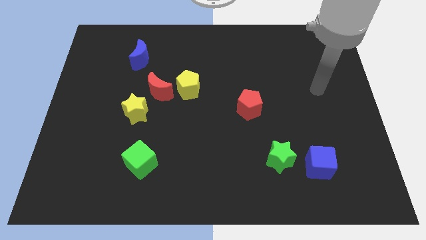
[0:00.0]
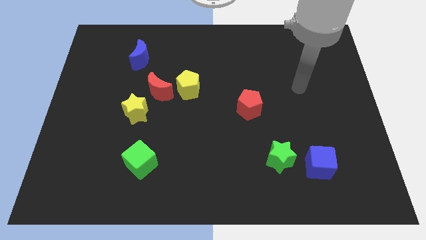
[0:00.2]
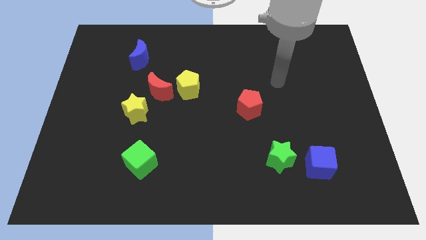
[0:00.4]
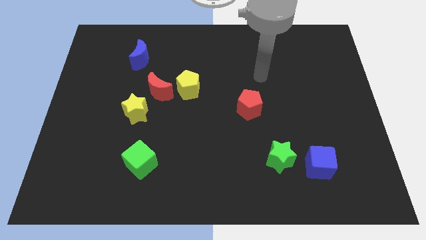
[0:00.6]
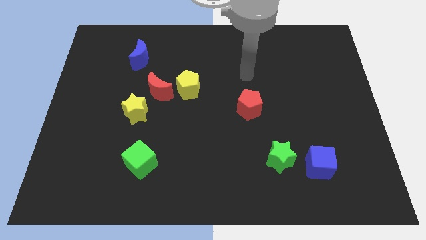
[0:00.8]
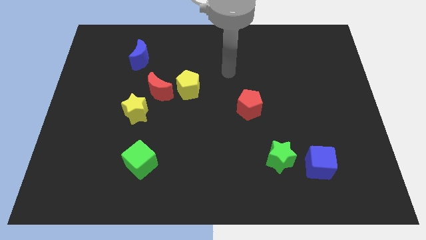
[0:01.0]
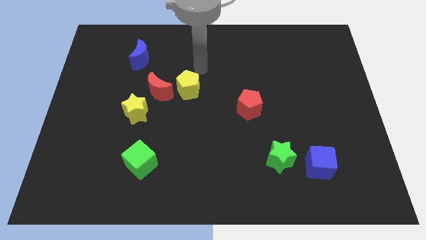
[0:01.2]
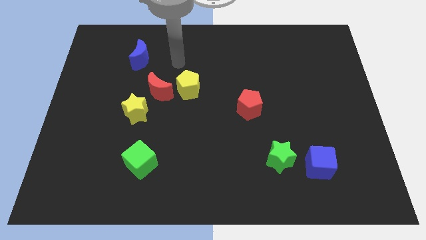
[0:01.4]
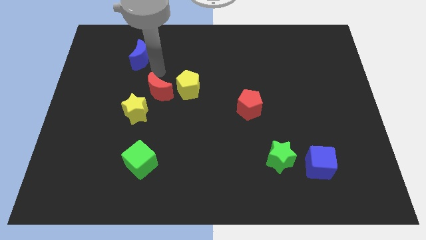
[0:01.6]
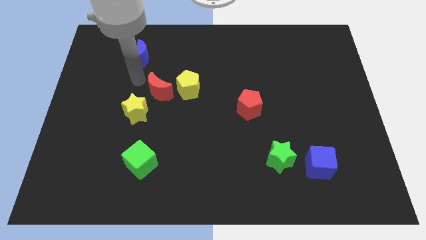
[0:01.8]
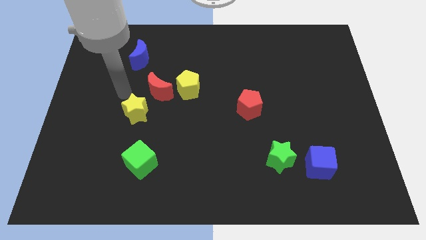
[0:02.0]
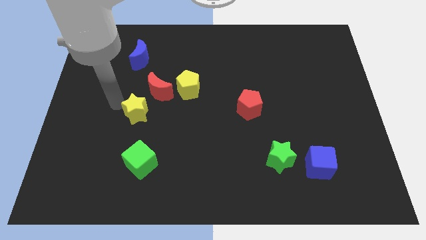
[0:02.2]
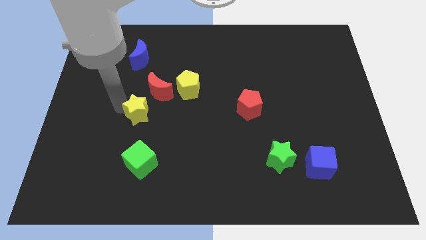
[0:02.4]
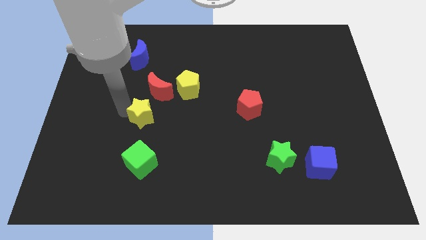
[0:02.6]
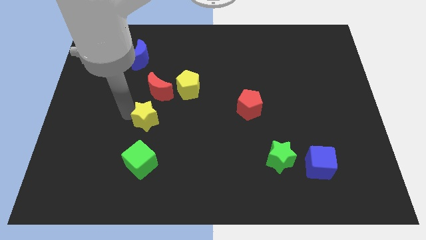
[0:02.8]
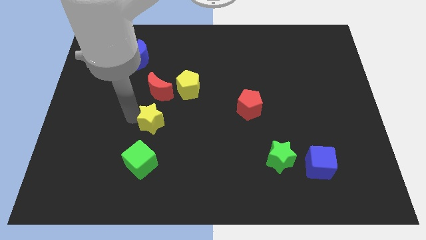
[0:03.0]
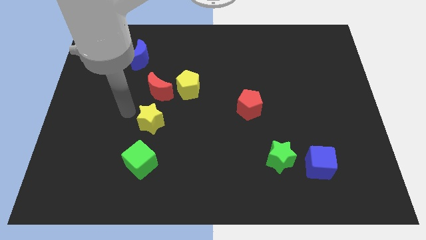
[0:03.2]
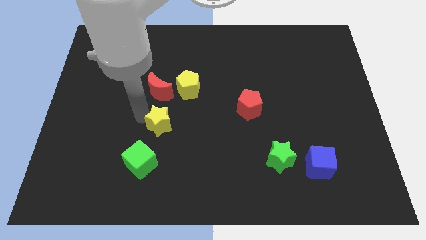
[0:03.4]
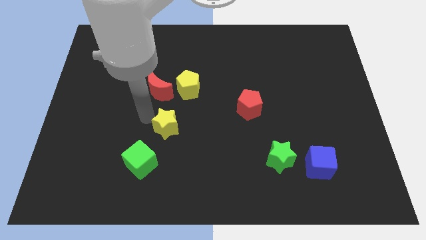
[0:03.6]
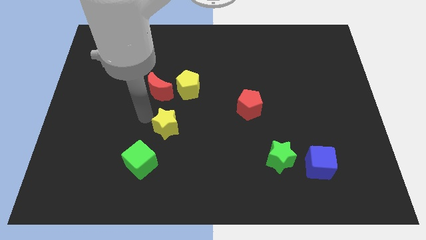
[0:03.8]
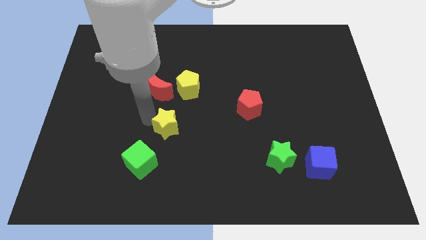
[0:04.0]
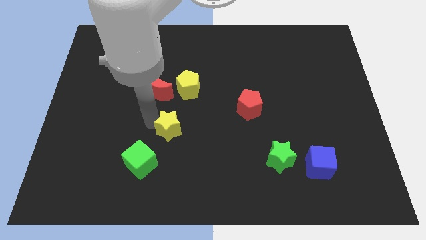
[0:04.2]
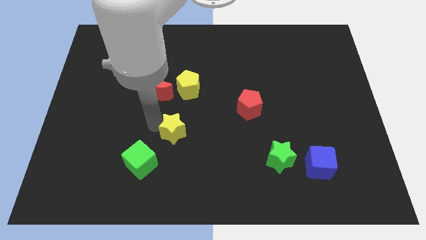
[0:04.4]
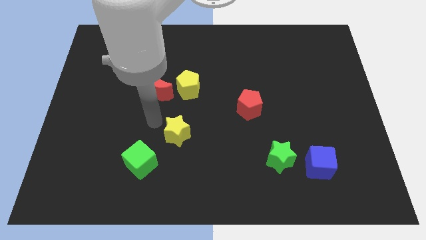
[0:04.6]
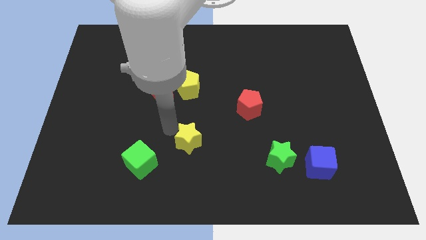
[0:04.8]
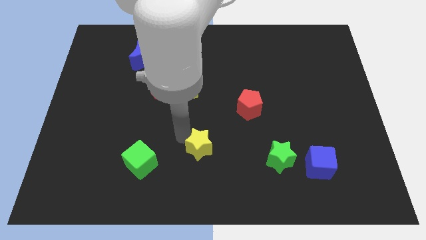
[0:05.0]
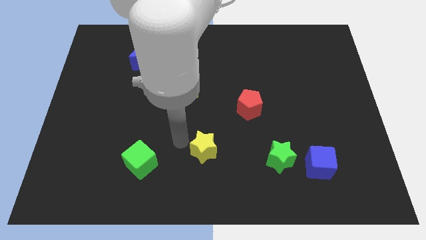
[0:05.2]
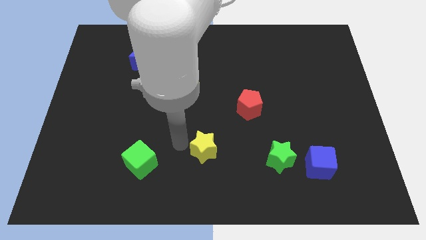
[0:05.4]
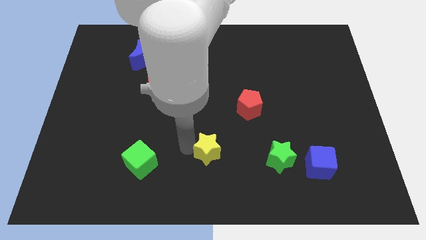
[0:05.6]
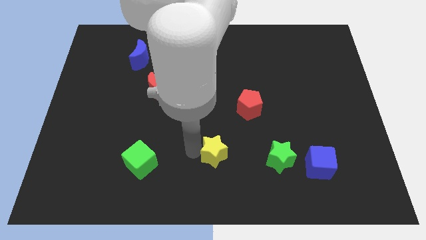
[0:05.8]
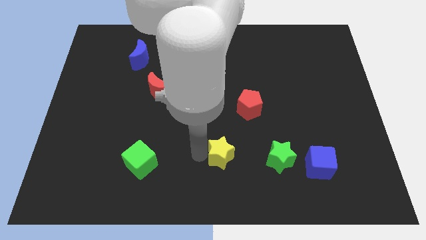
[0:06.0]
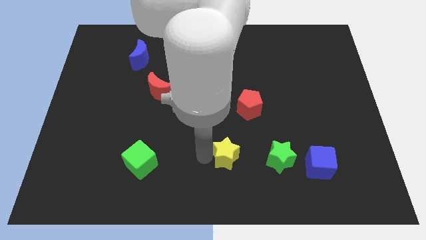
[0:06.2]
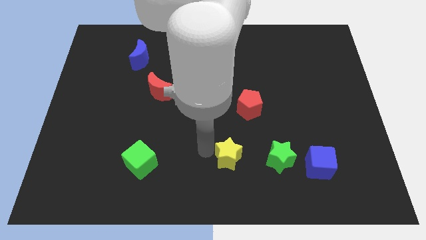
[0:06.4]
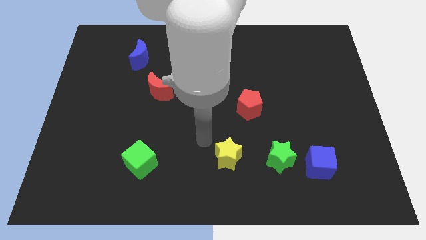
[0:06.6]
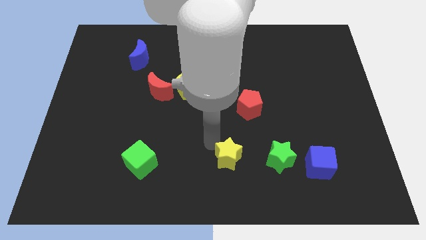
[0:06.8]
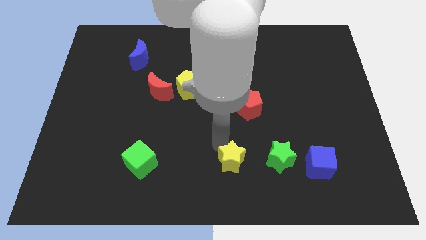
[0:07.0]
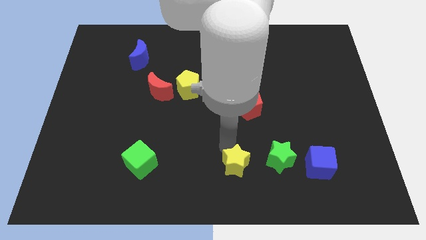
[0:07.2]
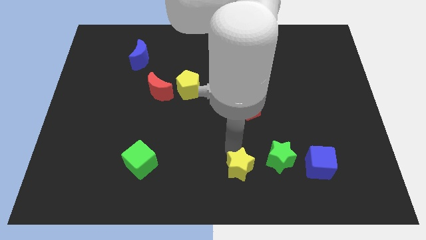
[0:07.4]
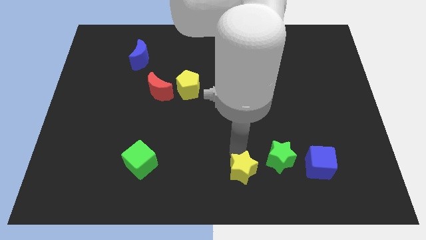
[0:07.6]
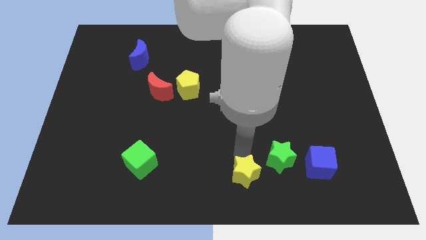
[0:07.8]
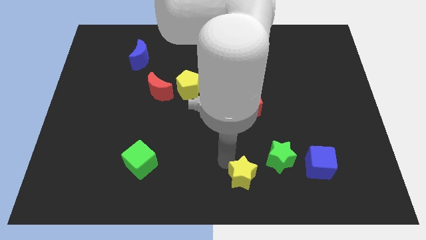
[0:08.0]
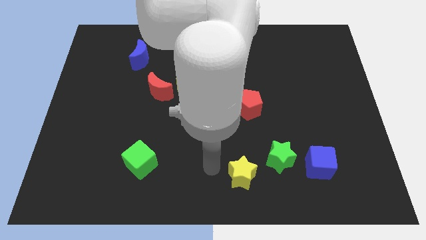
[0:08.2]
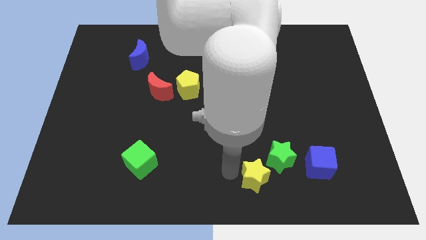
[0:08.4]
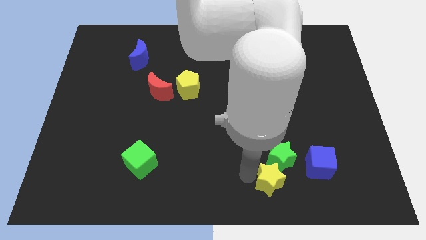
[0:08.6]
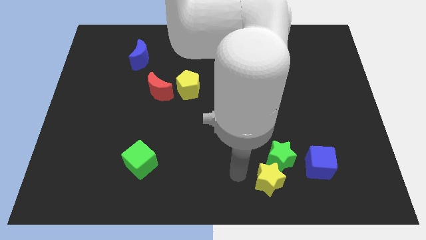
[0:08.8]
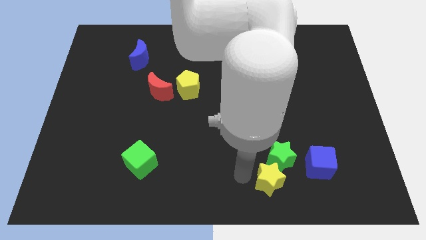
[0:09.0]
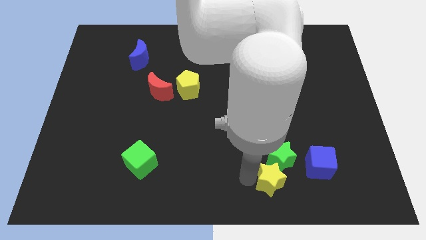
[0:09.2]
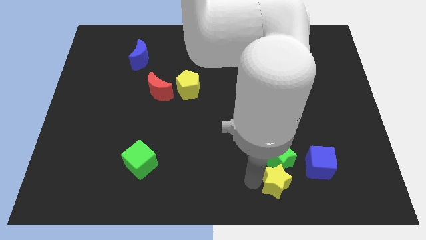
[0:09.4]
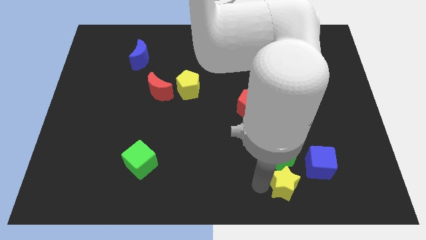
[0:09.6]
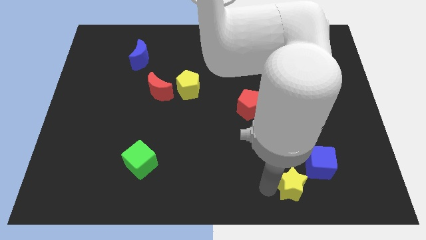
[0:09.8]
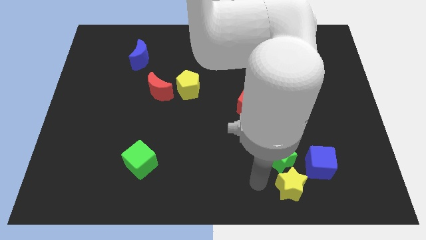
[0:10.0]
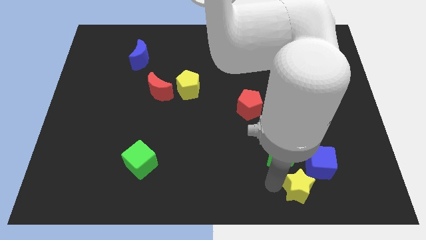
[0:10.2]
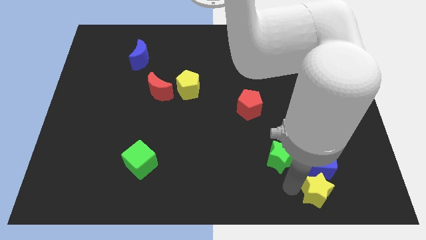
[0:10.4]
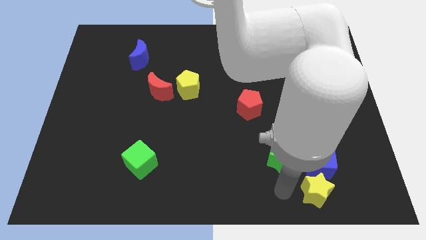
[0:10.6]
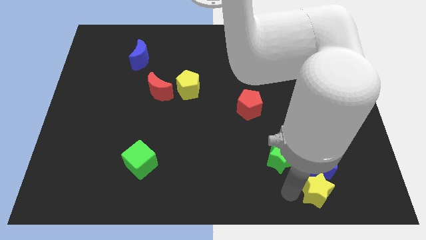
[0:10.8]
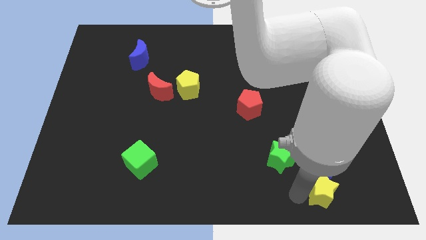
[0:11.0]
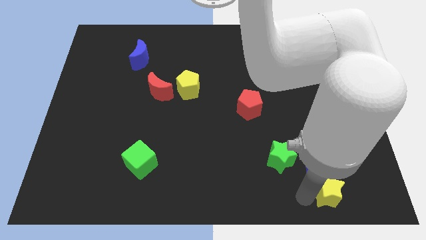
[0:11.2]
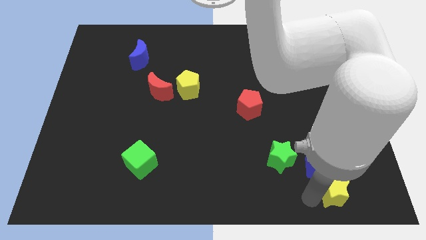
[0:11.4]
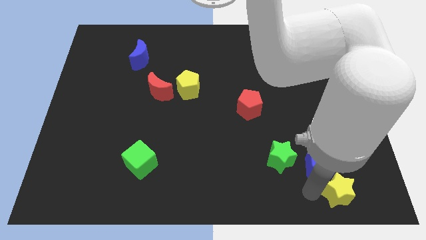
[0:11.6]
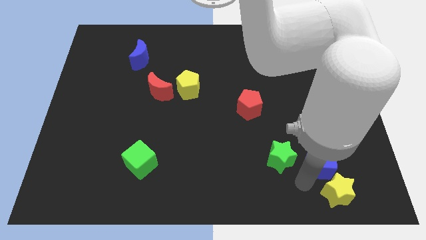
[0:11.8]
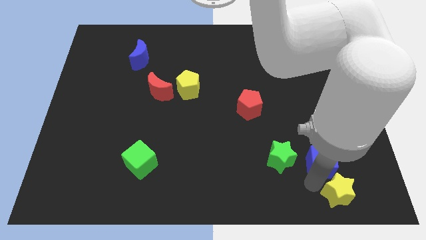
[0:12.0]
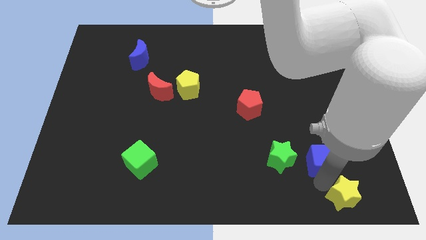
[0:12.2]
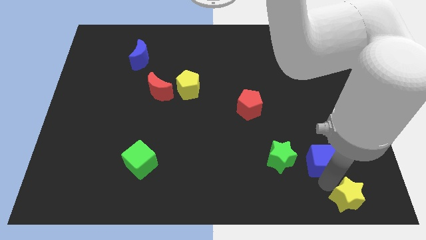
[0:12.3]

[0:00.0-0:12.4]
put the yellow star to the bottom right
